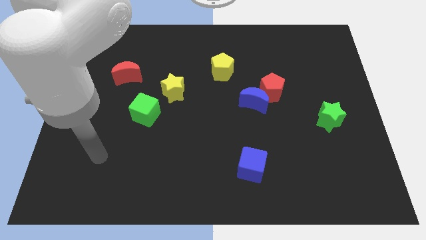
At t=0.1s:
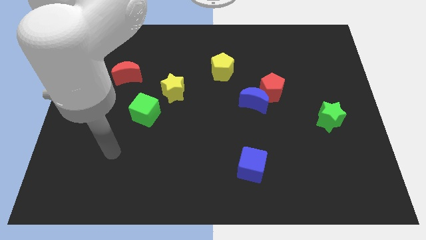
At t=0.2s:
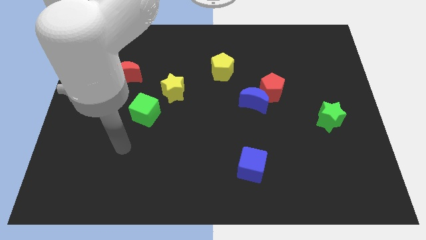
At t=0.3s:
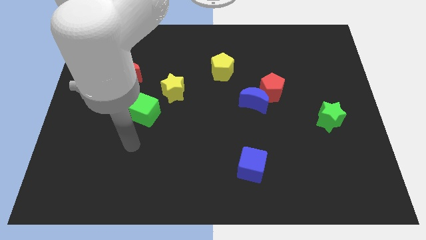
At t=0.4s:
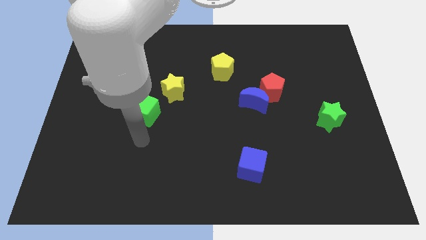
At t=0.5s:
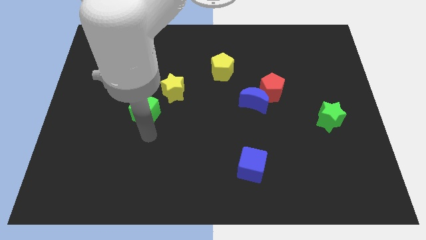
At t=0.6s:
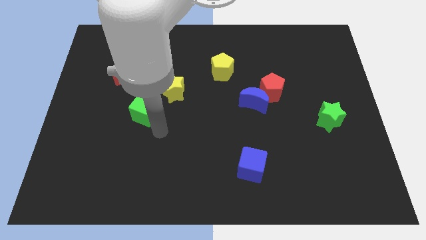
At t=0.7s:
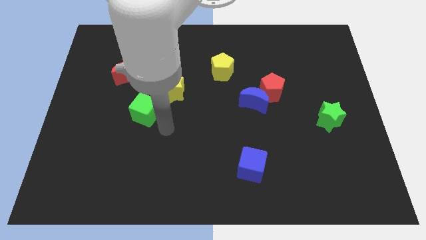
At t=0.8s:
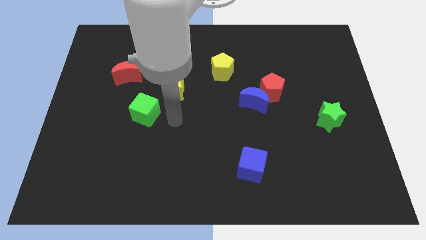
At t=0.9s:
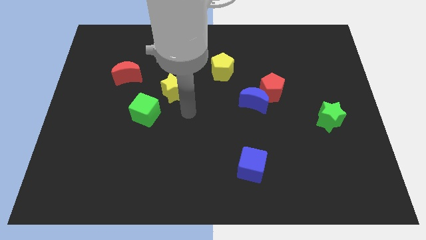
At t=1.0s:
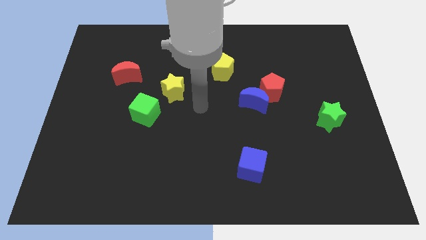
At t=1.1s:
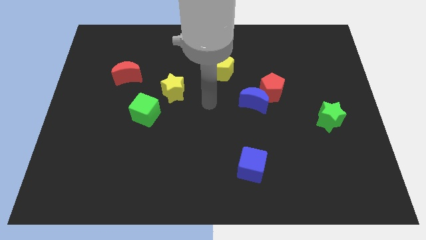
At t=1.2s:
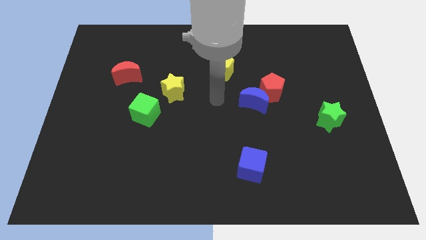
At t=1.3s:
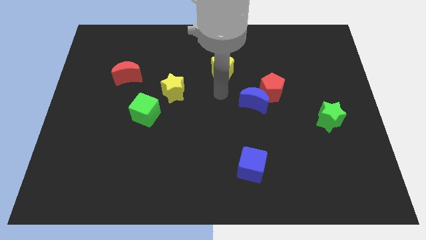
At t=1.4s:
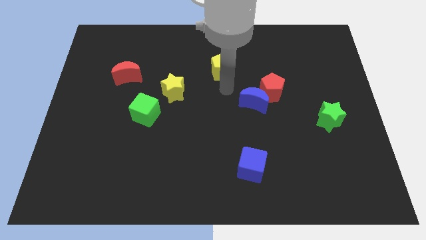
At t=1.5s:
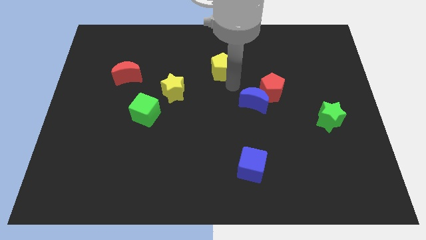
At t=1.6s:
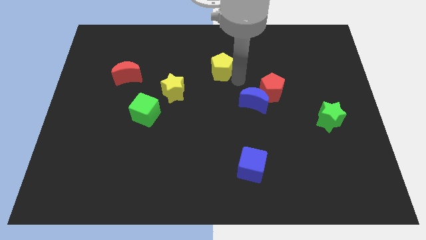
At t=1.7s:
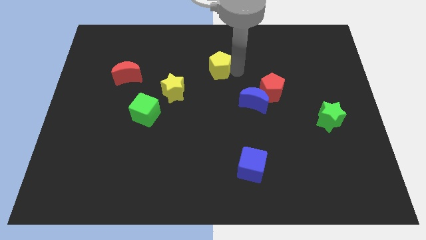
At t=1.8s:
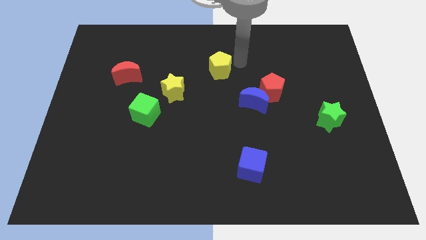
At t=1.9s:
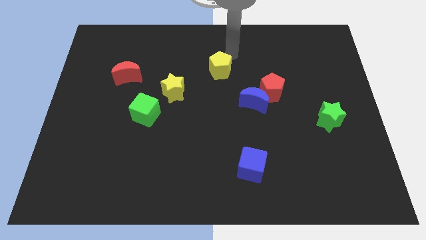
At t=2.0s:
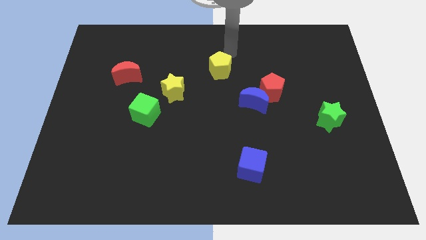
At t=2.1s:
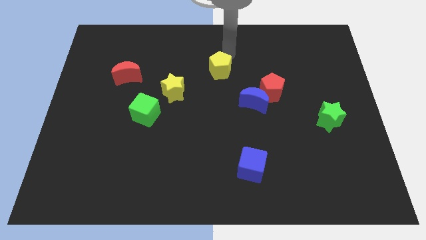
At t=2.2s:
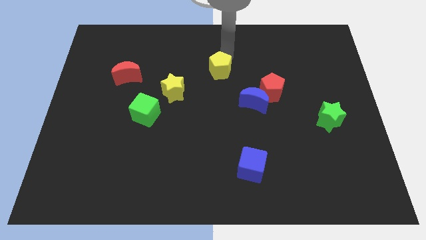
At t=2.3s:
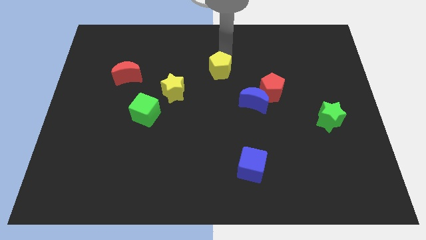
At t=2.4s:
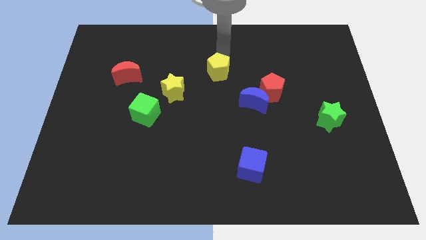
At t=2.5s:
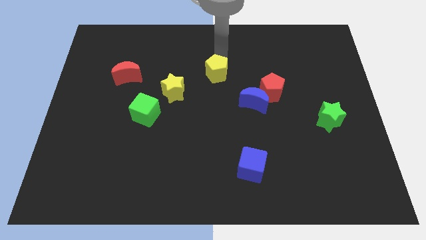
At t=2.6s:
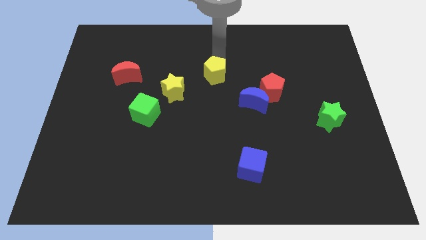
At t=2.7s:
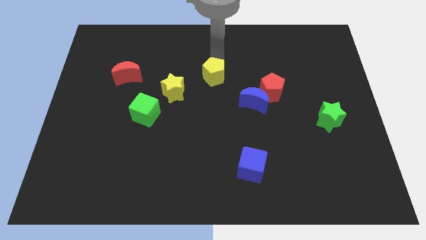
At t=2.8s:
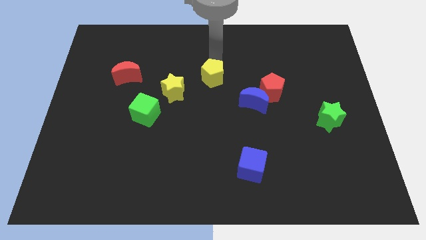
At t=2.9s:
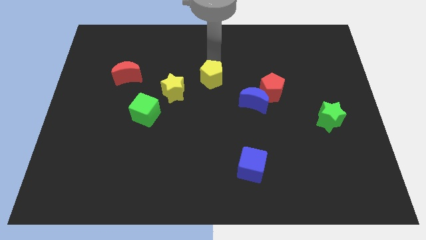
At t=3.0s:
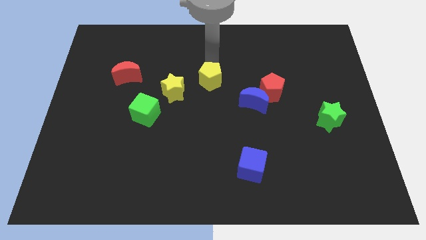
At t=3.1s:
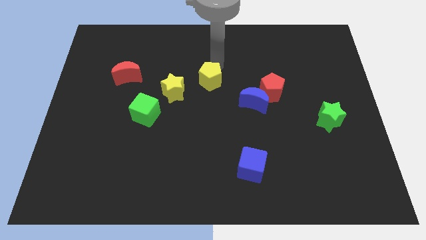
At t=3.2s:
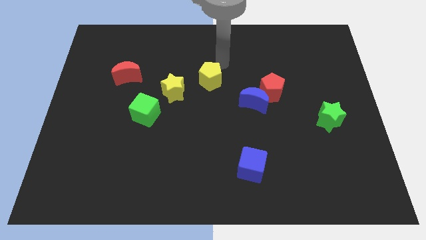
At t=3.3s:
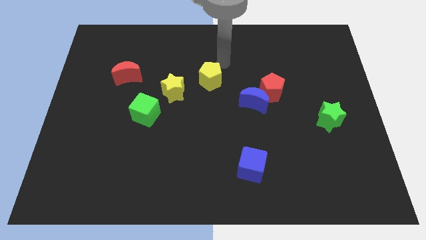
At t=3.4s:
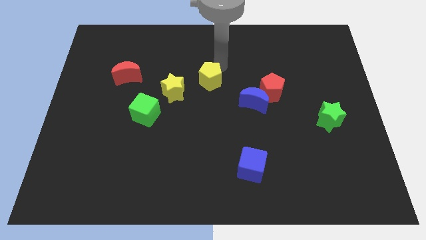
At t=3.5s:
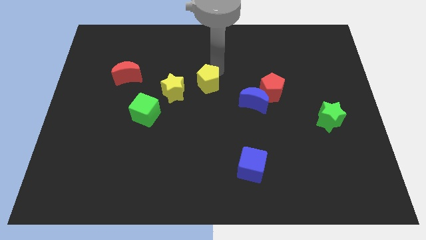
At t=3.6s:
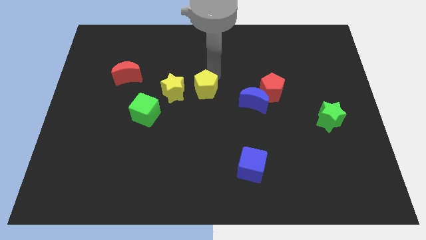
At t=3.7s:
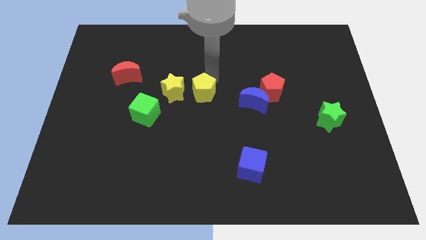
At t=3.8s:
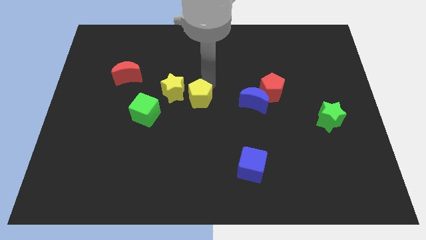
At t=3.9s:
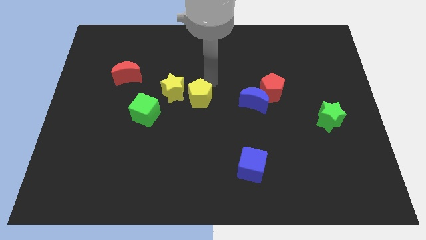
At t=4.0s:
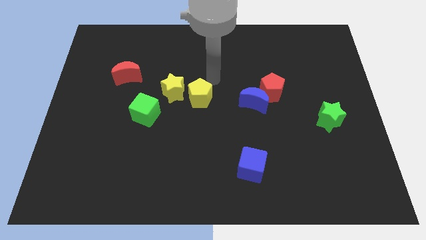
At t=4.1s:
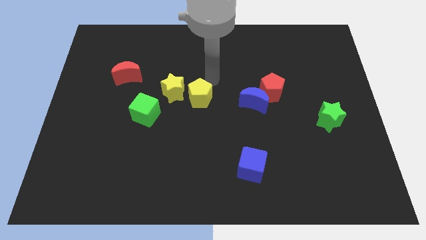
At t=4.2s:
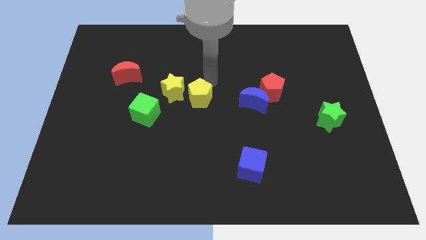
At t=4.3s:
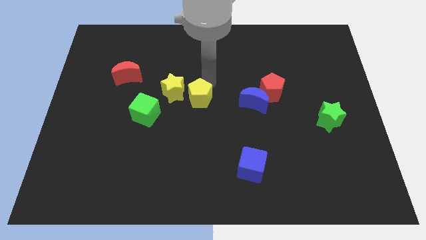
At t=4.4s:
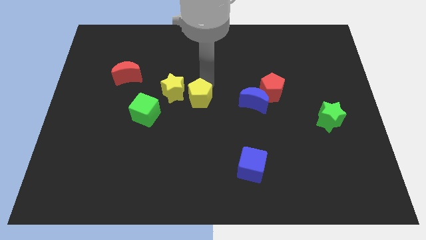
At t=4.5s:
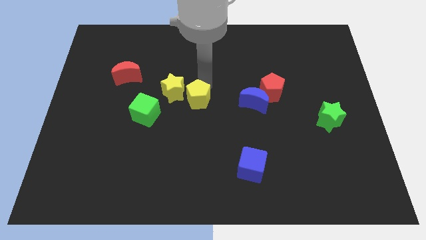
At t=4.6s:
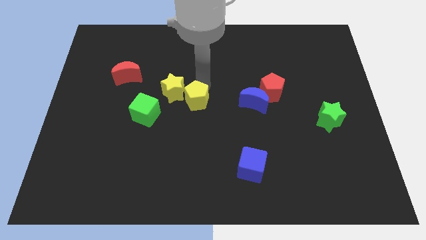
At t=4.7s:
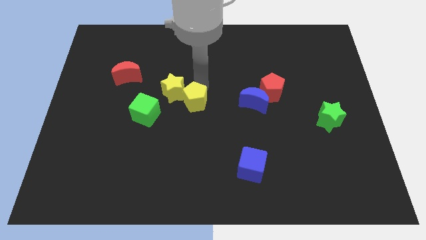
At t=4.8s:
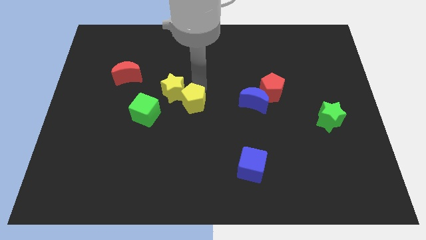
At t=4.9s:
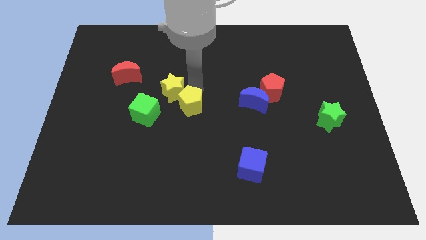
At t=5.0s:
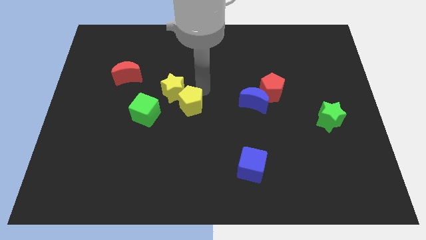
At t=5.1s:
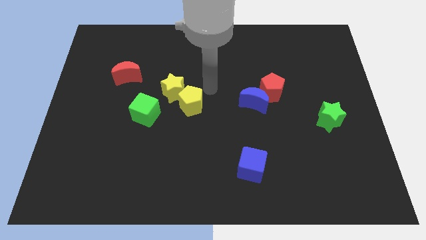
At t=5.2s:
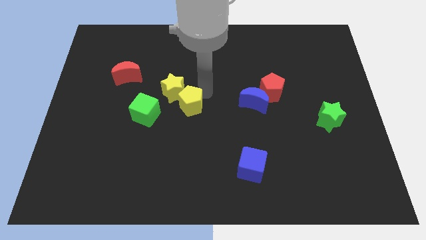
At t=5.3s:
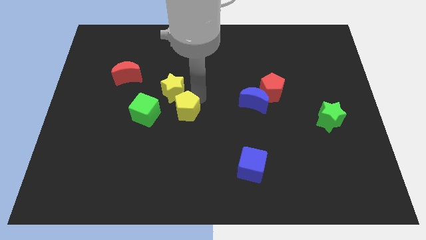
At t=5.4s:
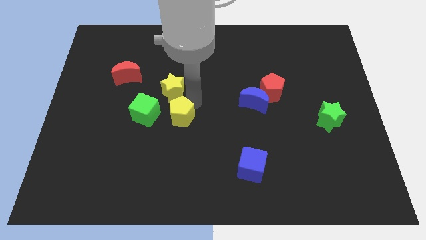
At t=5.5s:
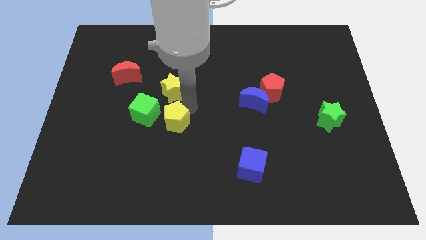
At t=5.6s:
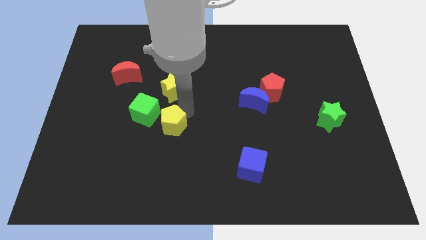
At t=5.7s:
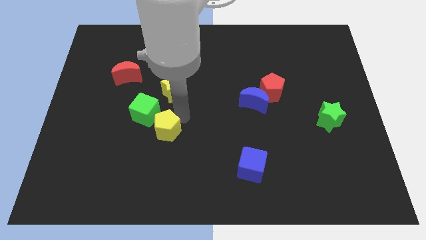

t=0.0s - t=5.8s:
push the yellow pentagon diagonally downwards and to the left

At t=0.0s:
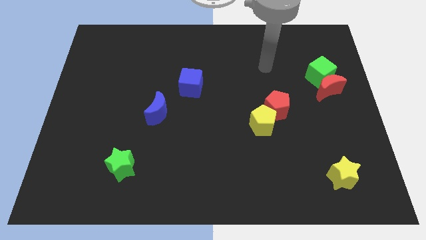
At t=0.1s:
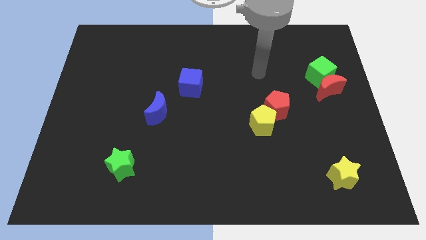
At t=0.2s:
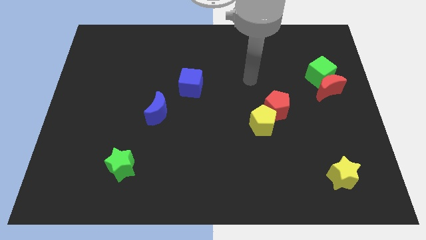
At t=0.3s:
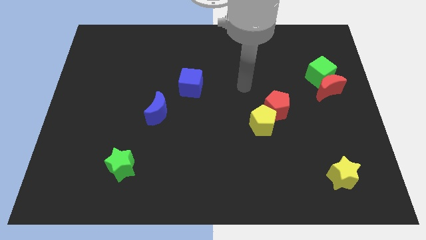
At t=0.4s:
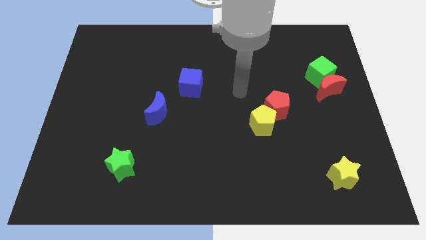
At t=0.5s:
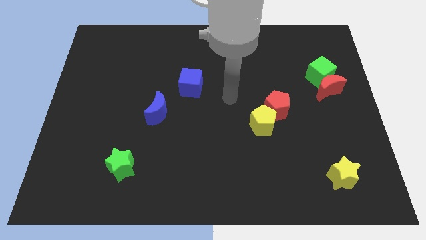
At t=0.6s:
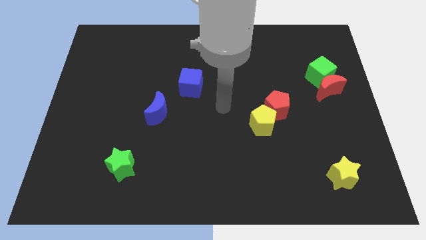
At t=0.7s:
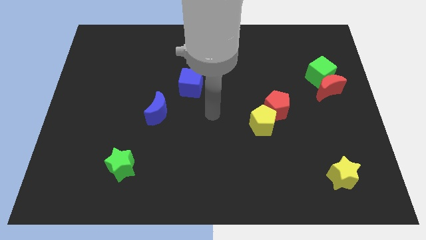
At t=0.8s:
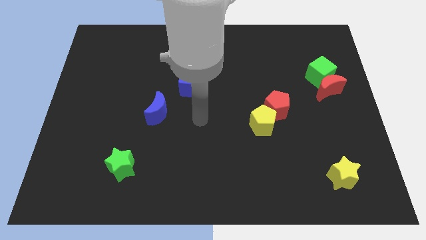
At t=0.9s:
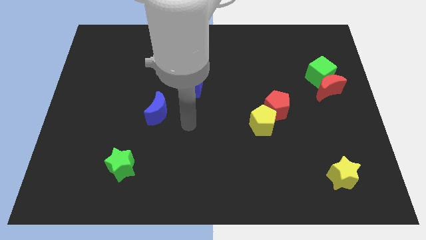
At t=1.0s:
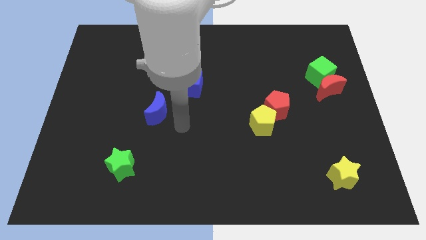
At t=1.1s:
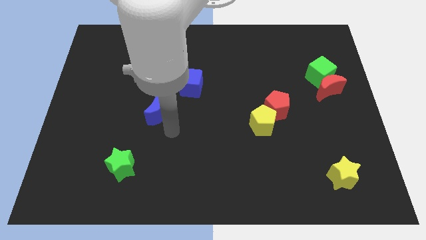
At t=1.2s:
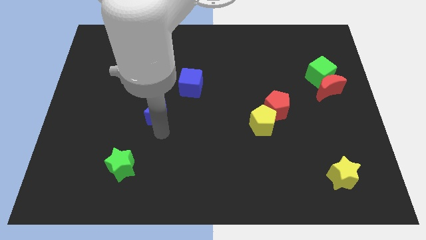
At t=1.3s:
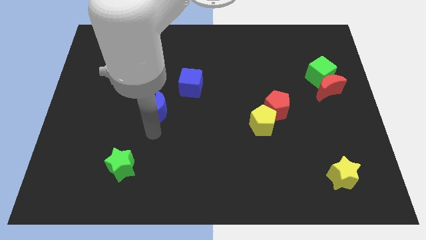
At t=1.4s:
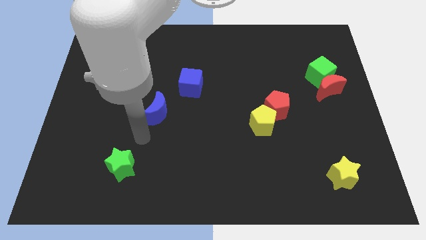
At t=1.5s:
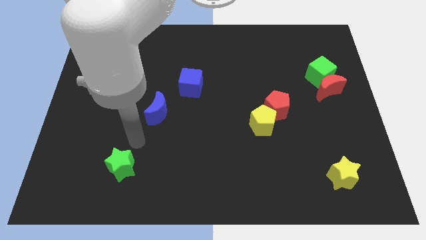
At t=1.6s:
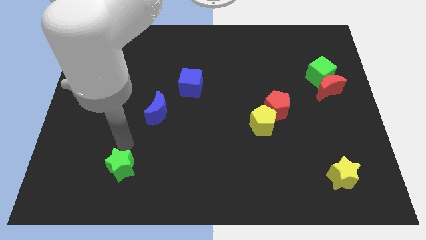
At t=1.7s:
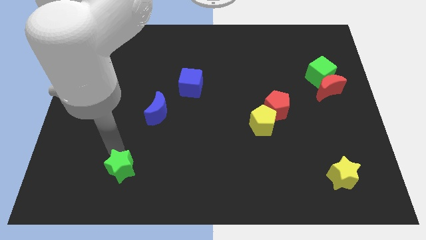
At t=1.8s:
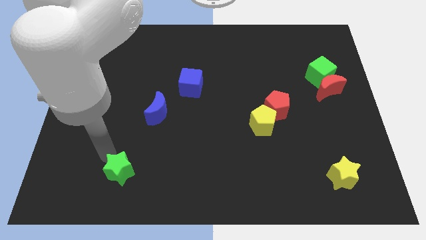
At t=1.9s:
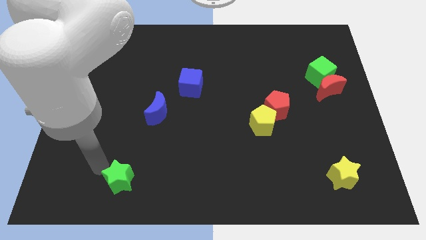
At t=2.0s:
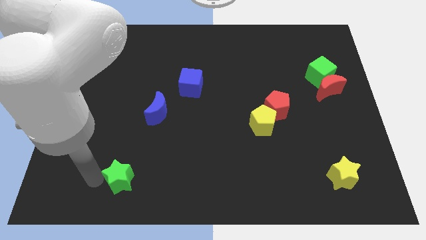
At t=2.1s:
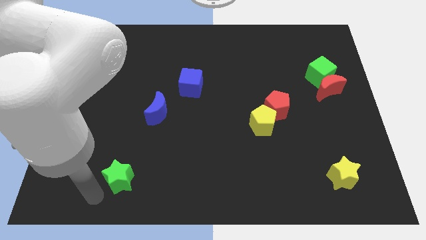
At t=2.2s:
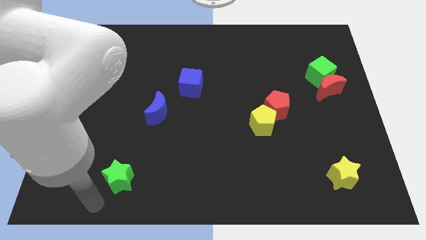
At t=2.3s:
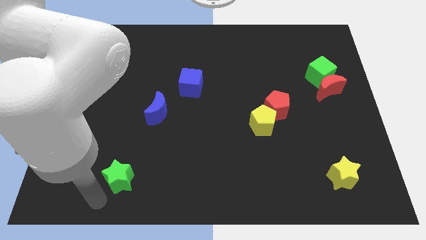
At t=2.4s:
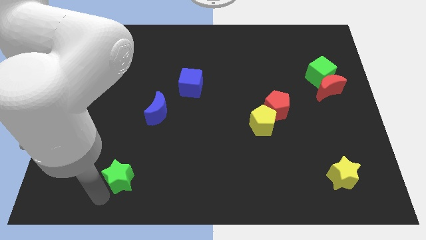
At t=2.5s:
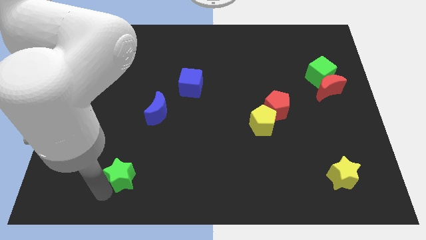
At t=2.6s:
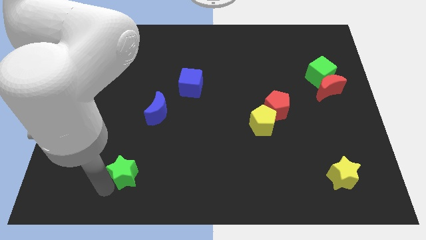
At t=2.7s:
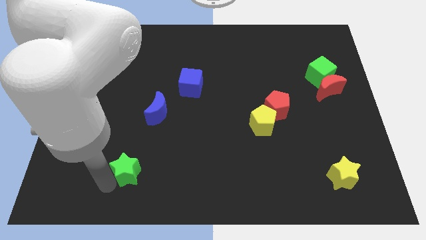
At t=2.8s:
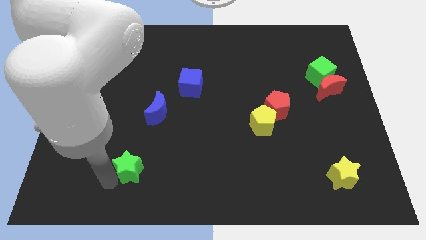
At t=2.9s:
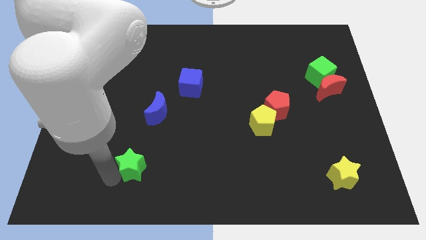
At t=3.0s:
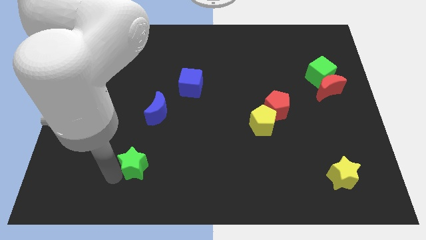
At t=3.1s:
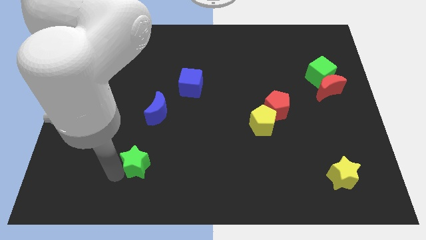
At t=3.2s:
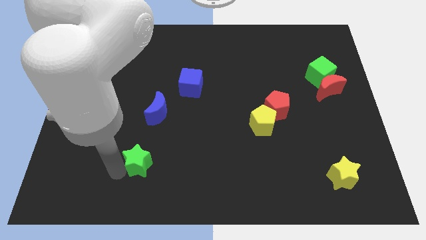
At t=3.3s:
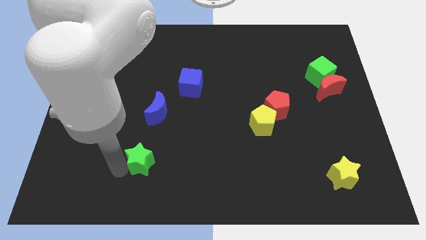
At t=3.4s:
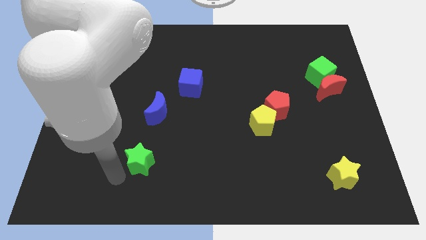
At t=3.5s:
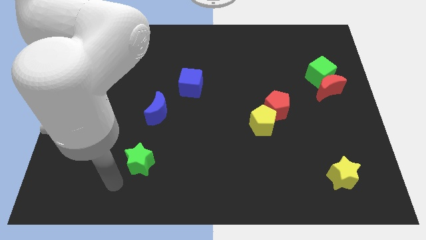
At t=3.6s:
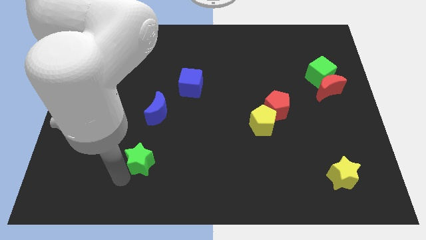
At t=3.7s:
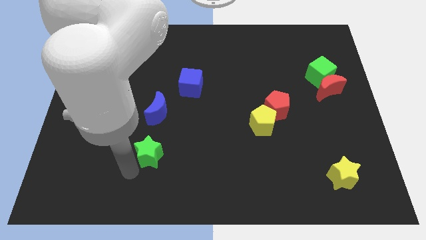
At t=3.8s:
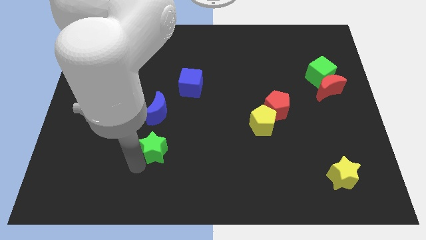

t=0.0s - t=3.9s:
slightly slide the green star up and then to the right
